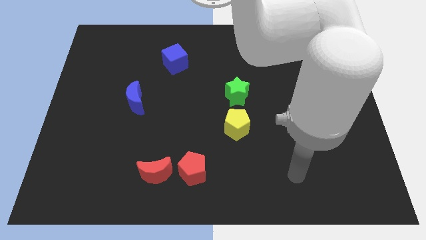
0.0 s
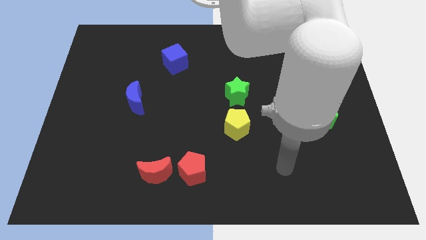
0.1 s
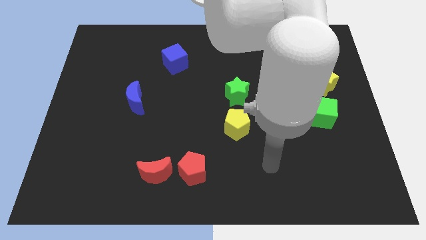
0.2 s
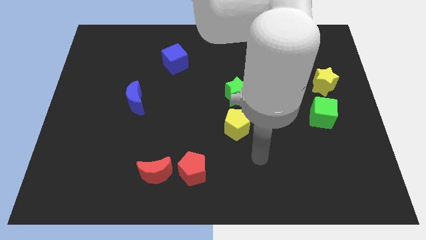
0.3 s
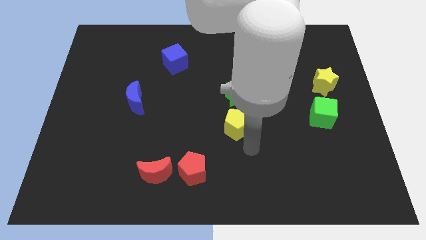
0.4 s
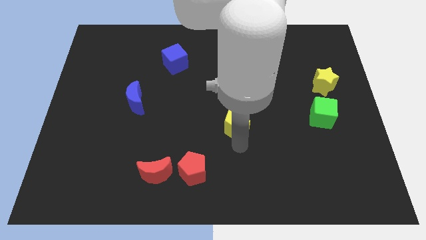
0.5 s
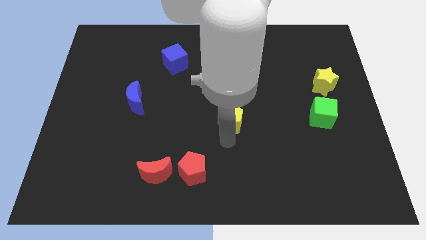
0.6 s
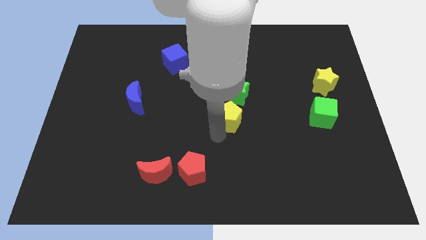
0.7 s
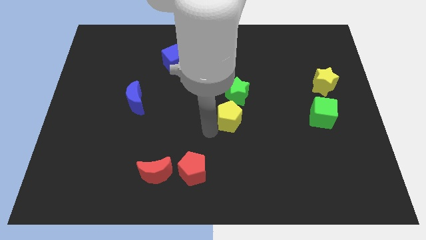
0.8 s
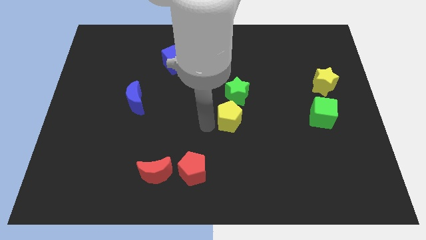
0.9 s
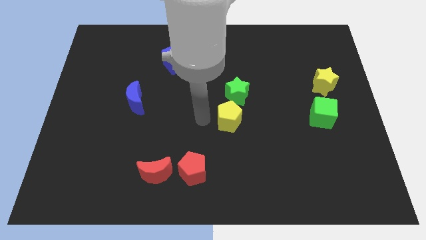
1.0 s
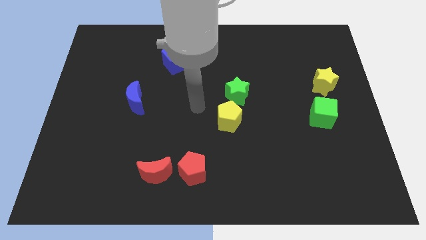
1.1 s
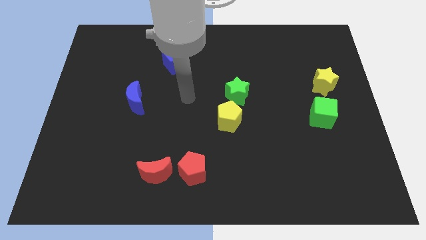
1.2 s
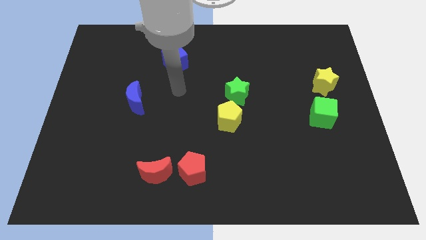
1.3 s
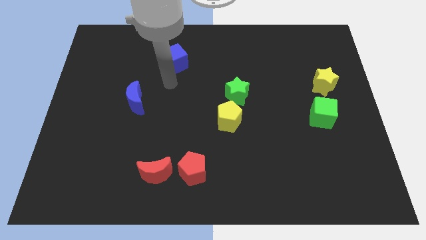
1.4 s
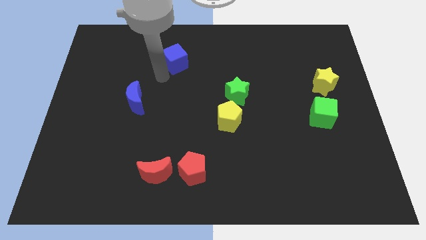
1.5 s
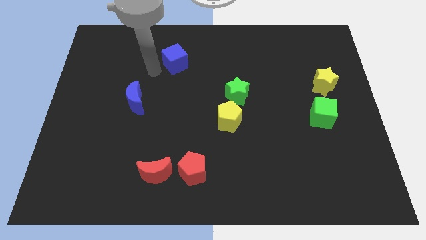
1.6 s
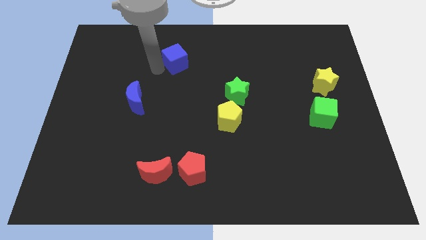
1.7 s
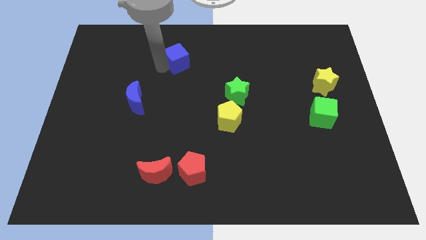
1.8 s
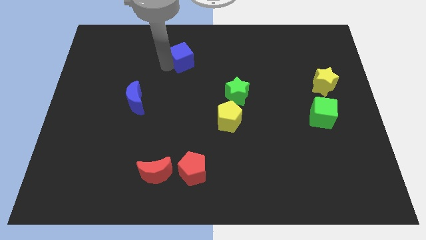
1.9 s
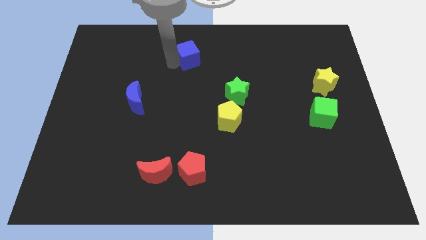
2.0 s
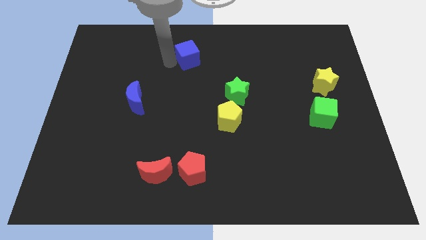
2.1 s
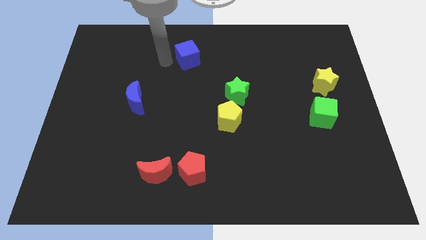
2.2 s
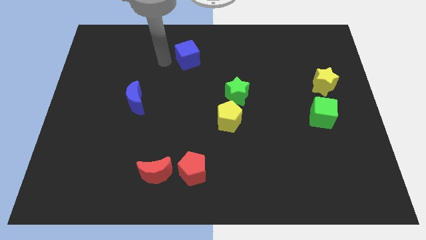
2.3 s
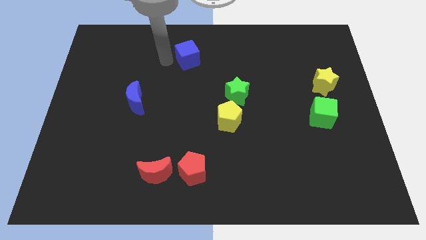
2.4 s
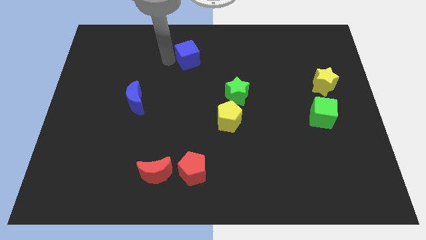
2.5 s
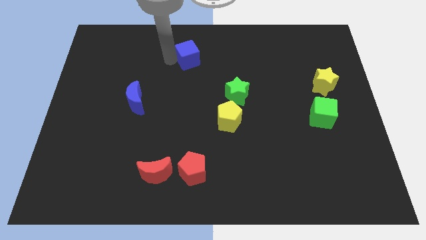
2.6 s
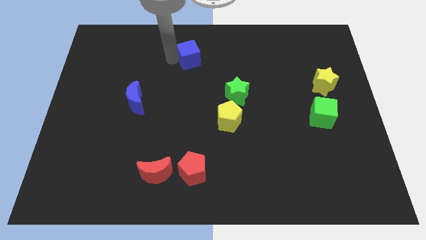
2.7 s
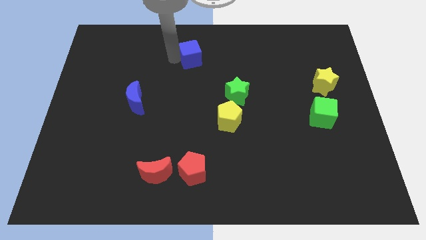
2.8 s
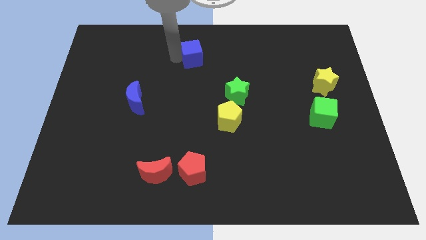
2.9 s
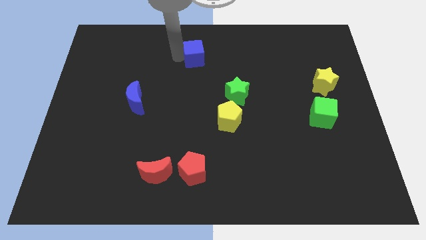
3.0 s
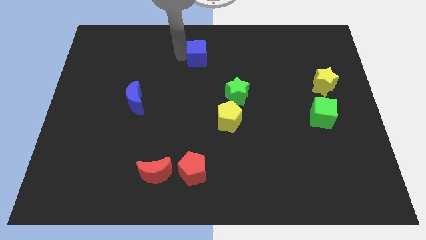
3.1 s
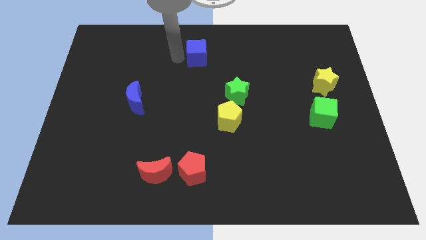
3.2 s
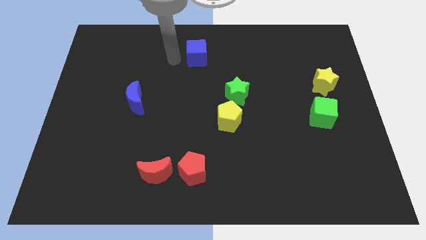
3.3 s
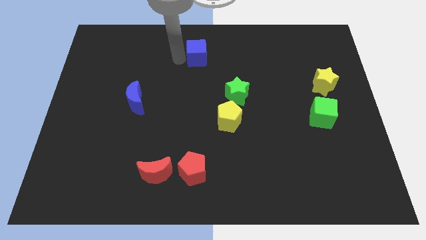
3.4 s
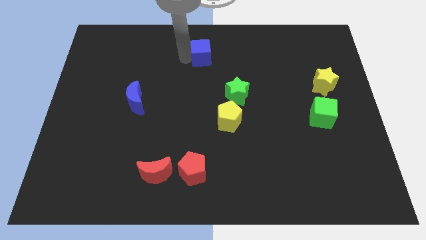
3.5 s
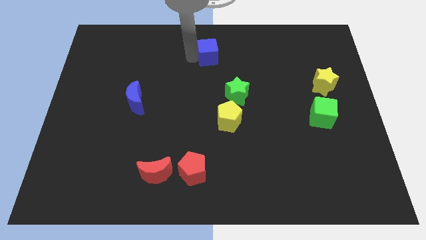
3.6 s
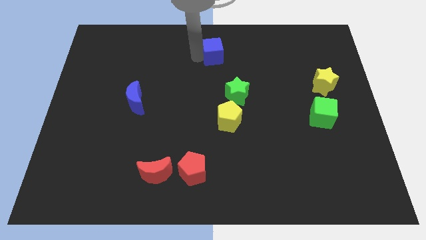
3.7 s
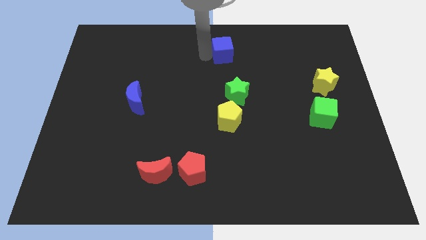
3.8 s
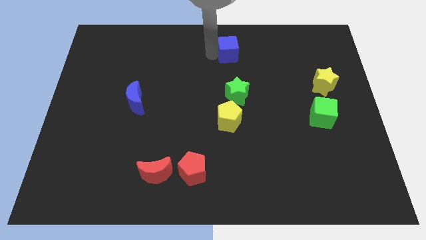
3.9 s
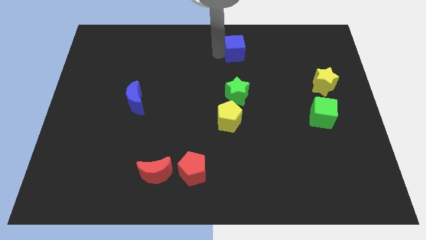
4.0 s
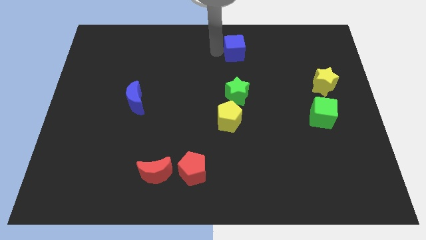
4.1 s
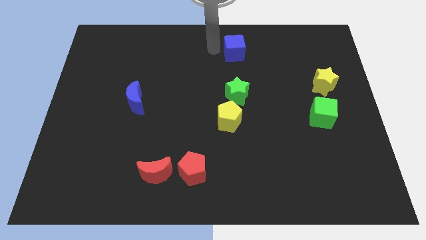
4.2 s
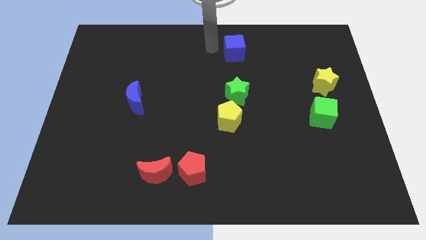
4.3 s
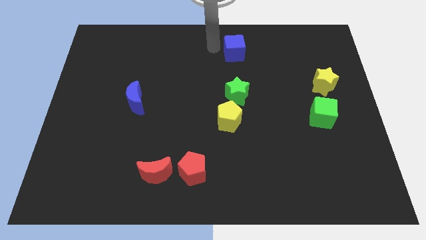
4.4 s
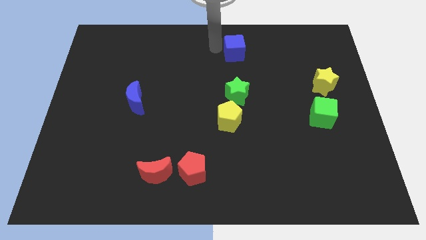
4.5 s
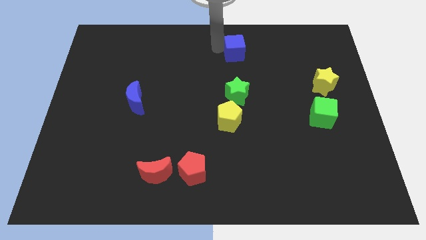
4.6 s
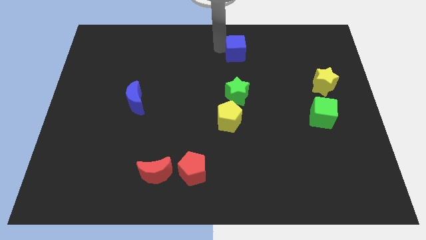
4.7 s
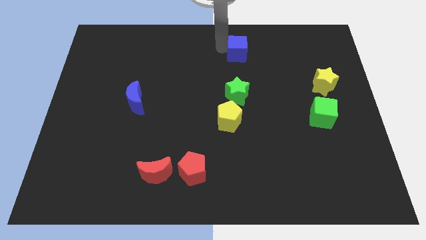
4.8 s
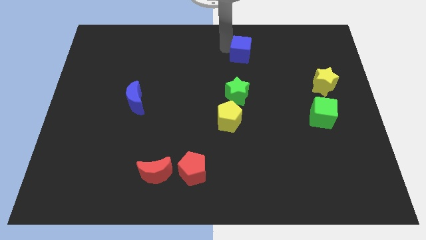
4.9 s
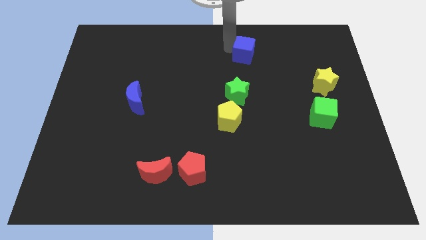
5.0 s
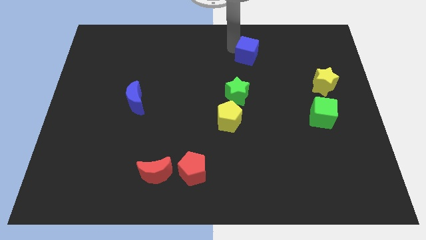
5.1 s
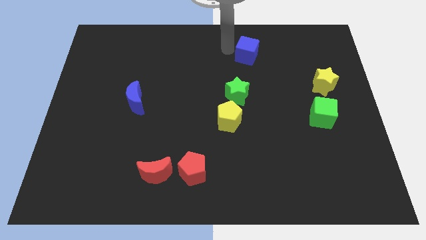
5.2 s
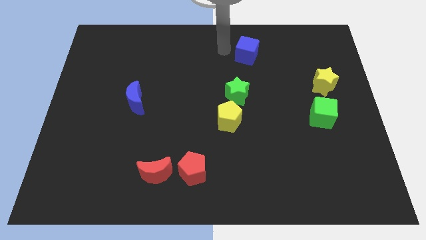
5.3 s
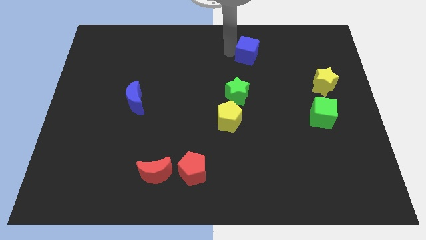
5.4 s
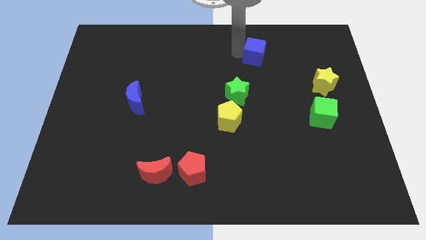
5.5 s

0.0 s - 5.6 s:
slide the blue cube to the right

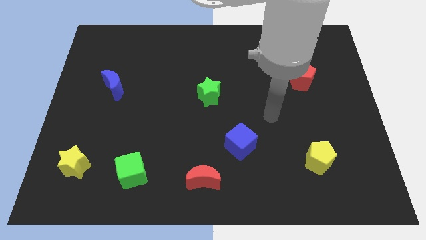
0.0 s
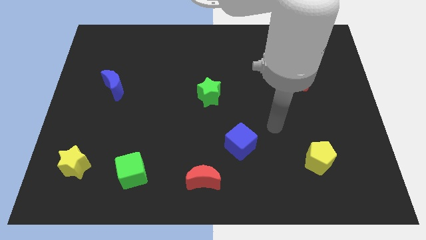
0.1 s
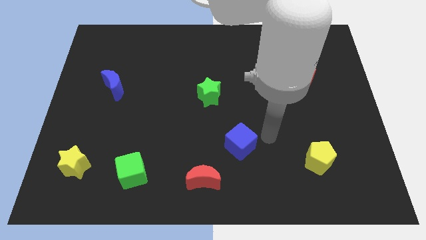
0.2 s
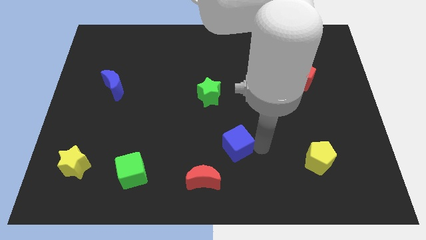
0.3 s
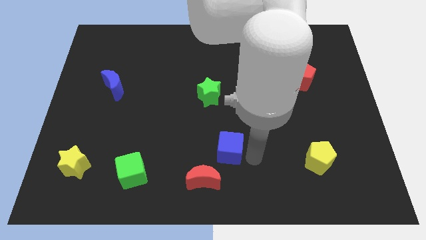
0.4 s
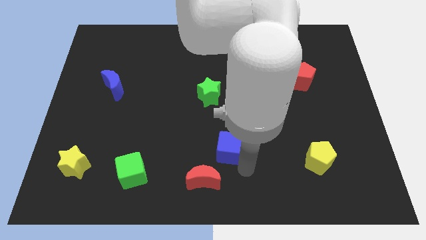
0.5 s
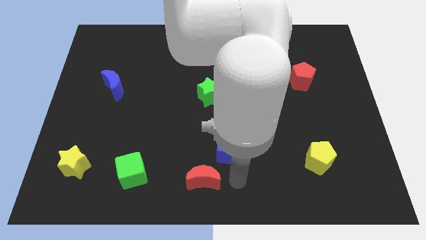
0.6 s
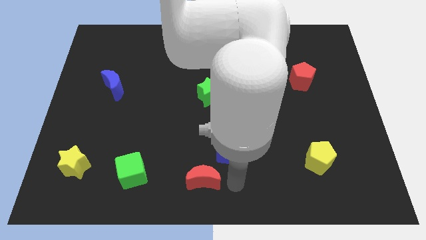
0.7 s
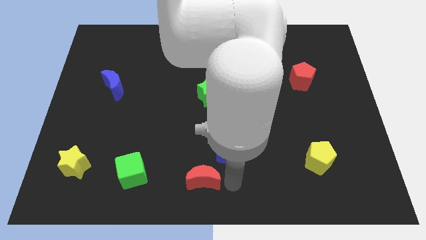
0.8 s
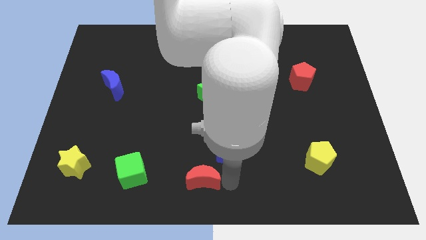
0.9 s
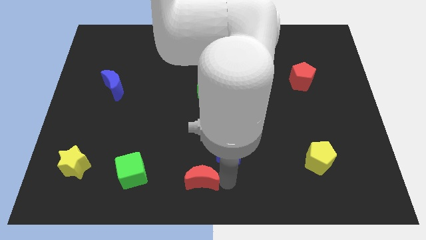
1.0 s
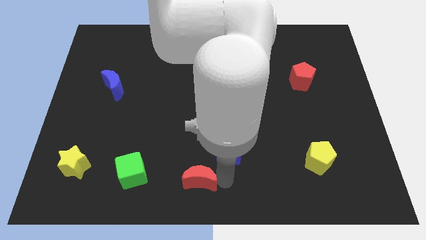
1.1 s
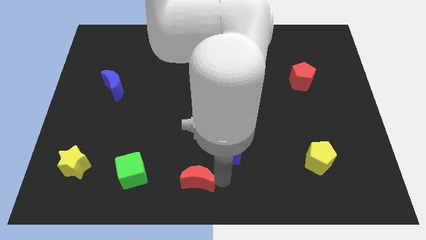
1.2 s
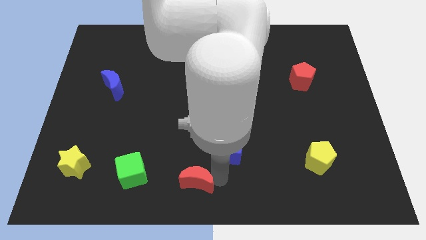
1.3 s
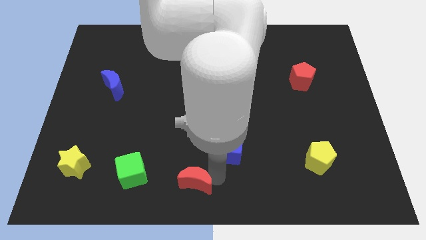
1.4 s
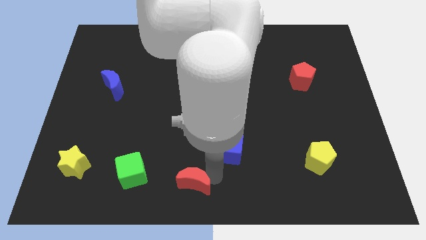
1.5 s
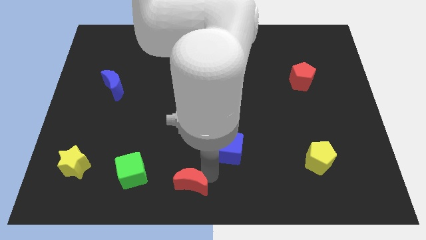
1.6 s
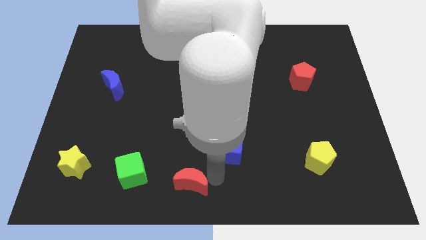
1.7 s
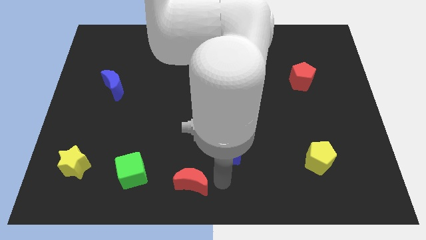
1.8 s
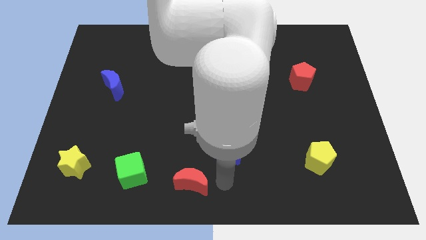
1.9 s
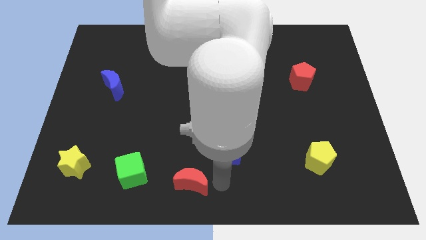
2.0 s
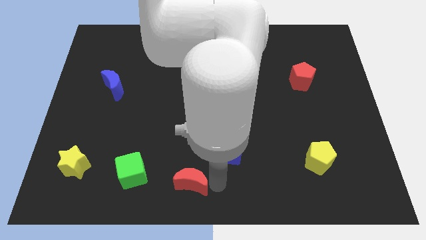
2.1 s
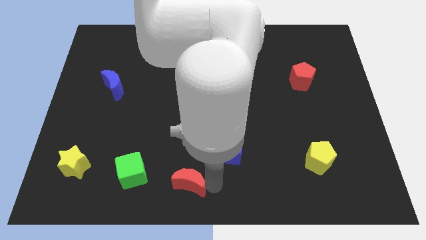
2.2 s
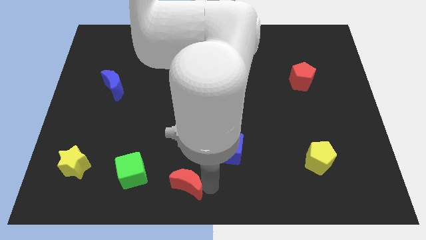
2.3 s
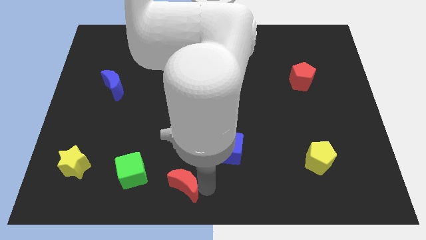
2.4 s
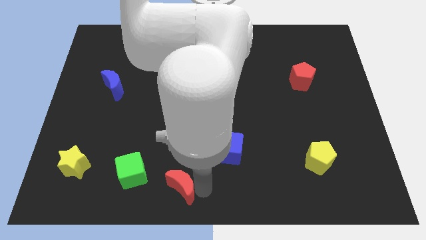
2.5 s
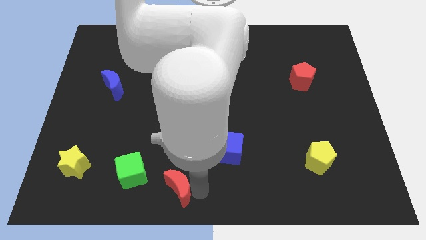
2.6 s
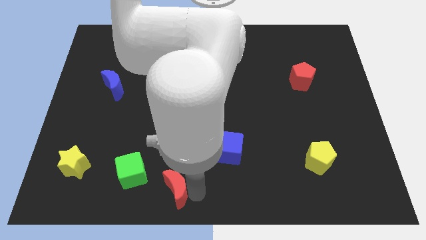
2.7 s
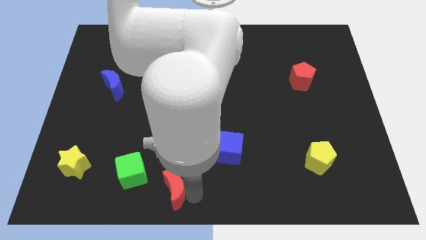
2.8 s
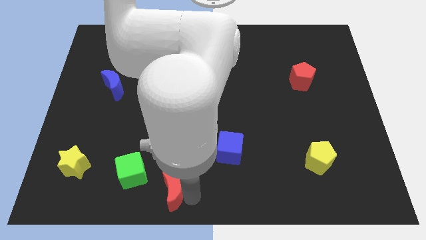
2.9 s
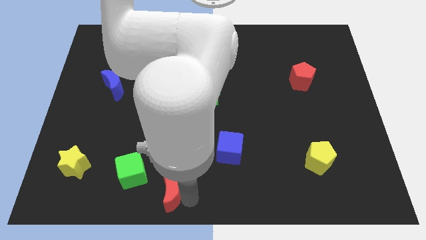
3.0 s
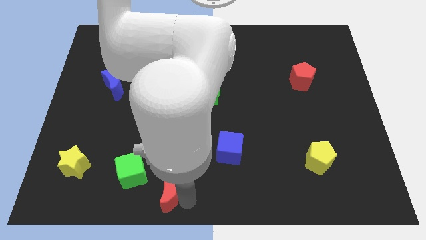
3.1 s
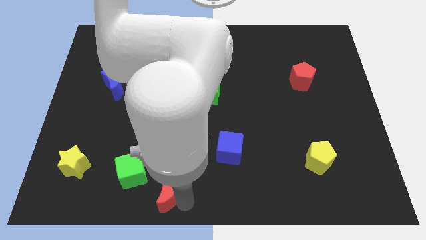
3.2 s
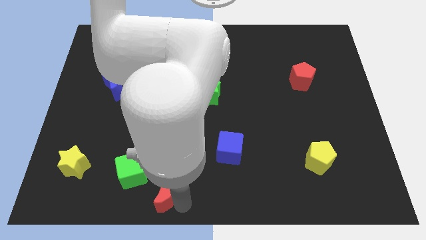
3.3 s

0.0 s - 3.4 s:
slightly push the red moon left
